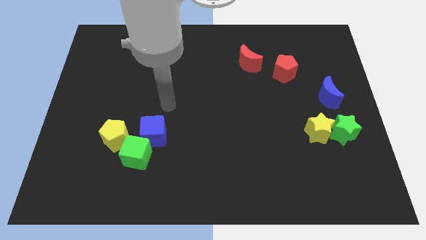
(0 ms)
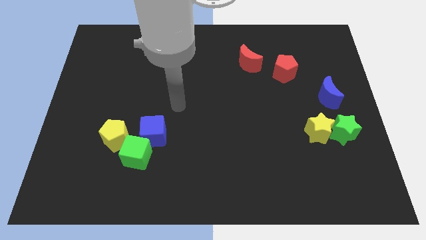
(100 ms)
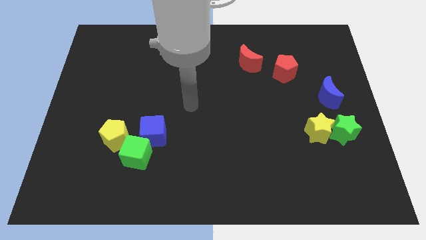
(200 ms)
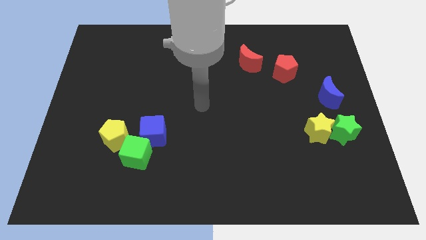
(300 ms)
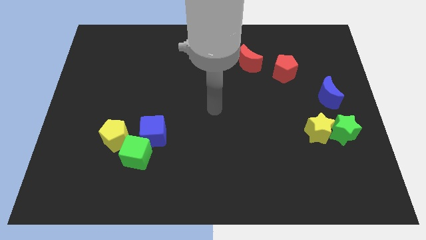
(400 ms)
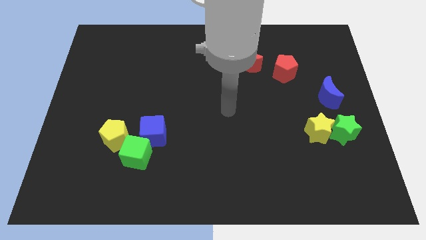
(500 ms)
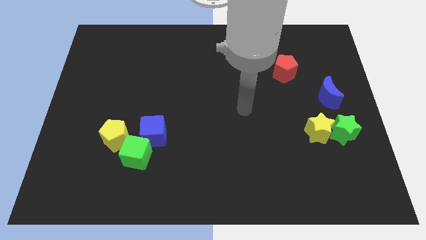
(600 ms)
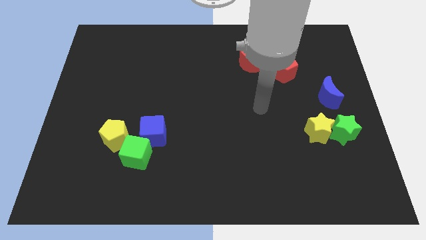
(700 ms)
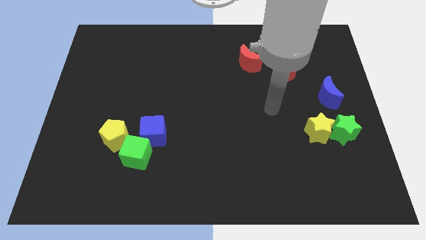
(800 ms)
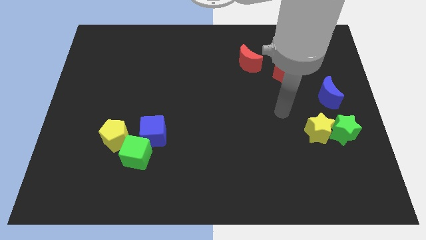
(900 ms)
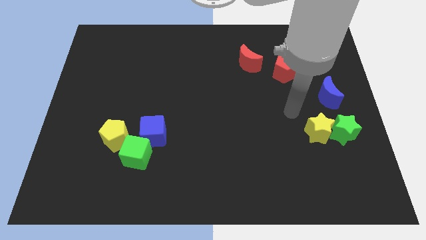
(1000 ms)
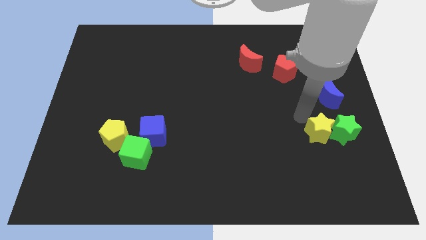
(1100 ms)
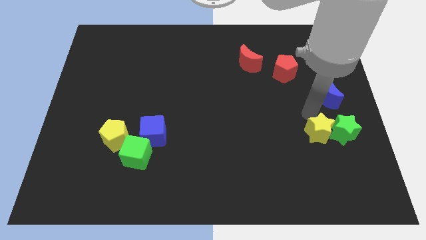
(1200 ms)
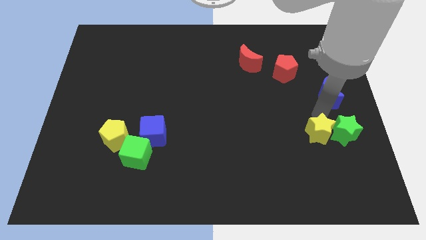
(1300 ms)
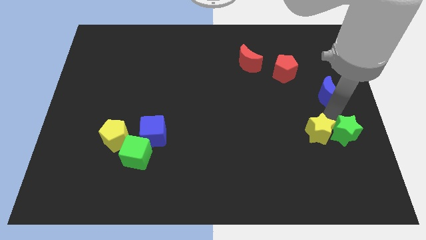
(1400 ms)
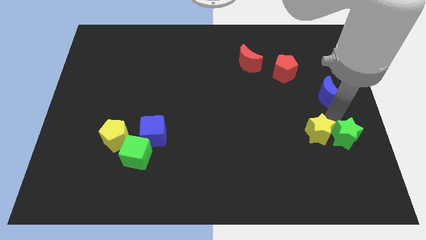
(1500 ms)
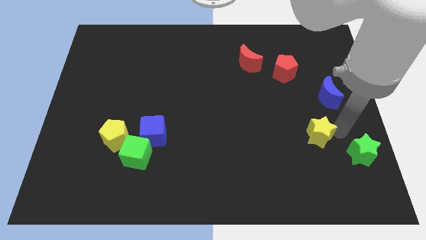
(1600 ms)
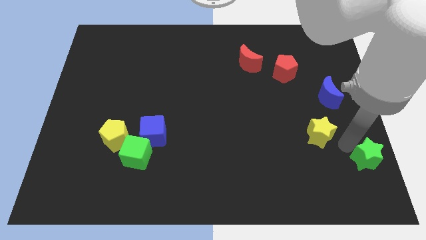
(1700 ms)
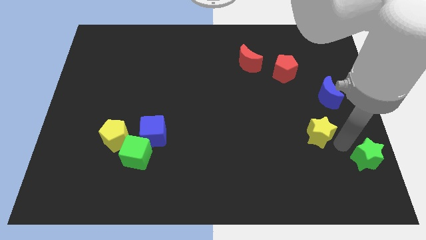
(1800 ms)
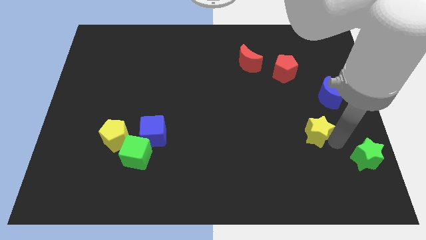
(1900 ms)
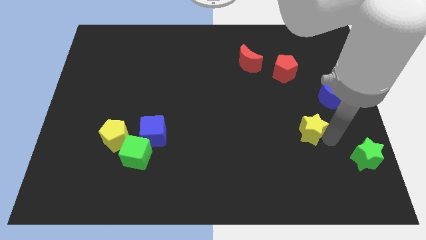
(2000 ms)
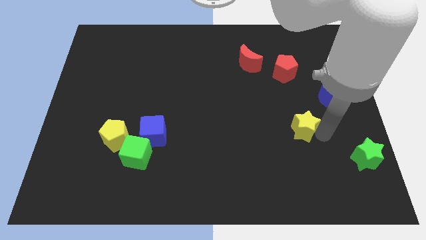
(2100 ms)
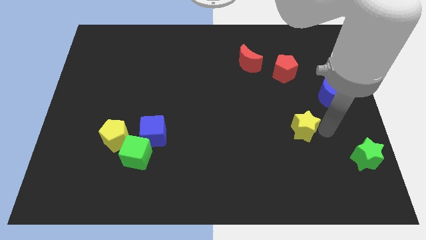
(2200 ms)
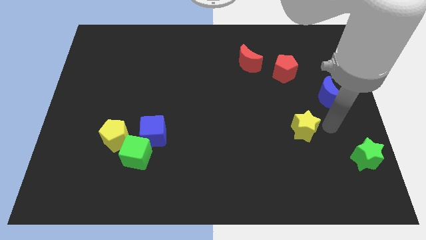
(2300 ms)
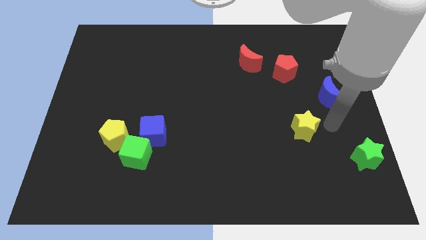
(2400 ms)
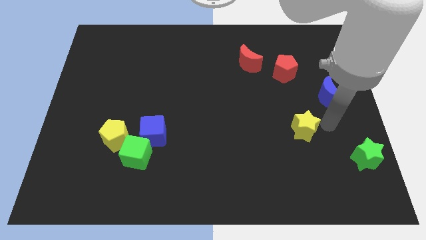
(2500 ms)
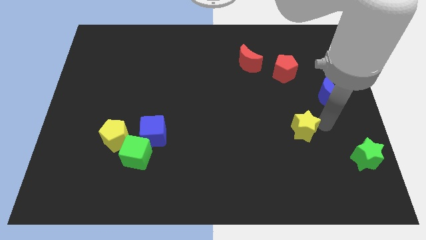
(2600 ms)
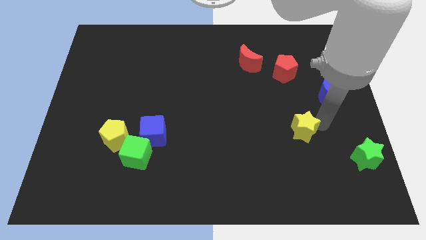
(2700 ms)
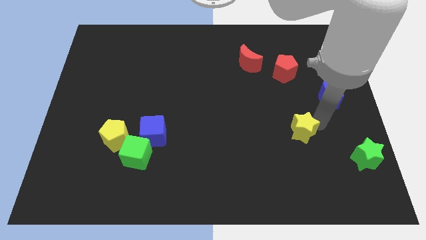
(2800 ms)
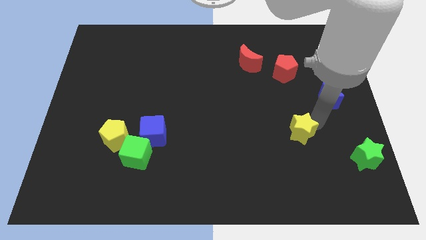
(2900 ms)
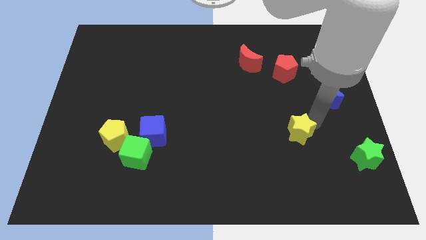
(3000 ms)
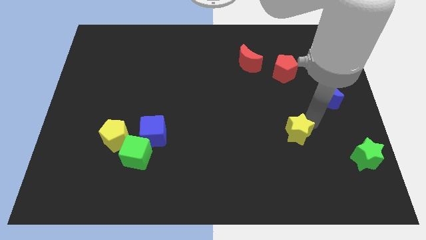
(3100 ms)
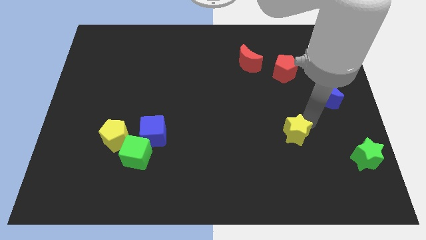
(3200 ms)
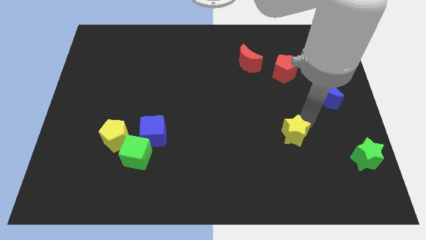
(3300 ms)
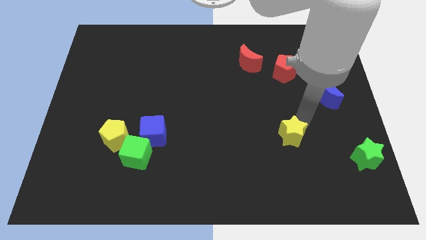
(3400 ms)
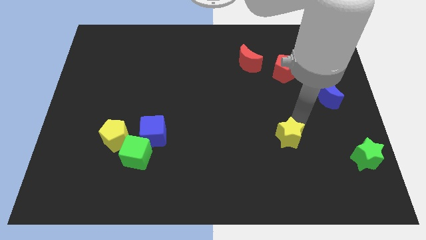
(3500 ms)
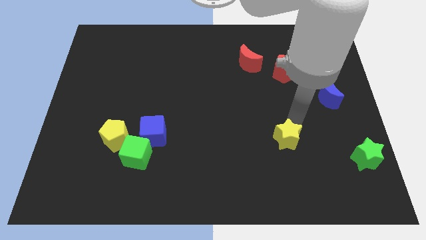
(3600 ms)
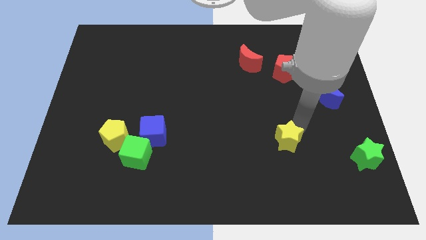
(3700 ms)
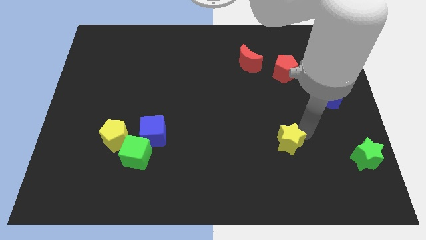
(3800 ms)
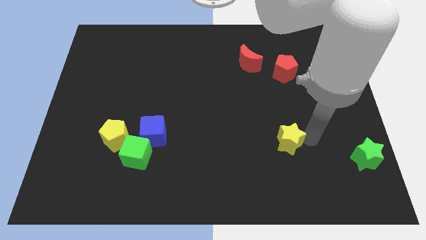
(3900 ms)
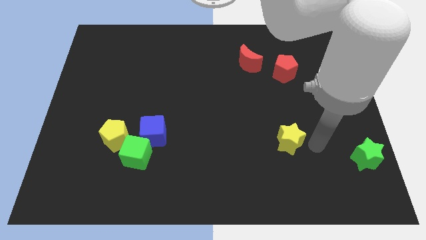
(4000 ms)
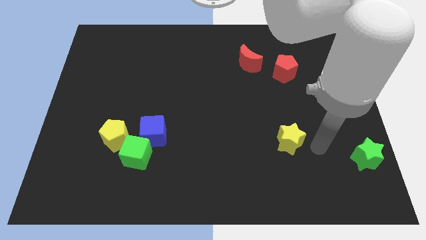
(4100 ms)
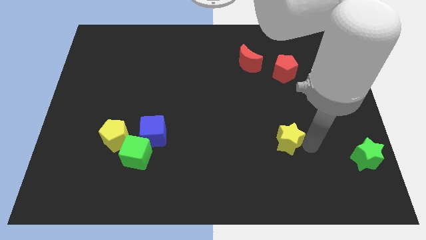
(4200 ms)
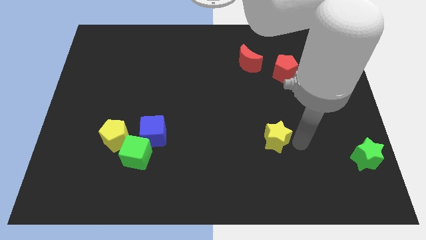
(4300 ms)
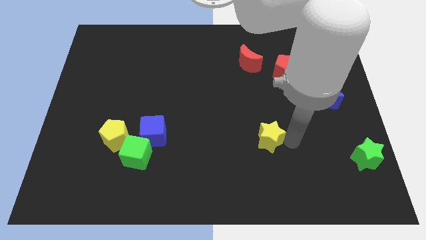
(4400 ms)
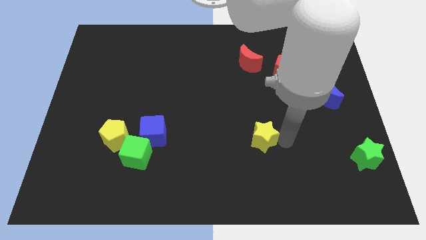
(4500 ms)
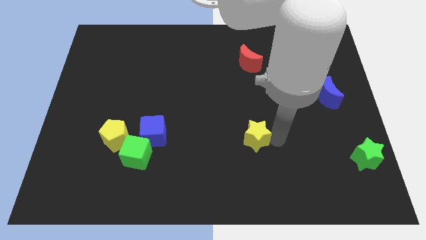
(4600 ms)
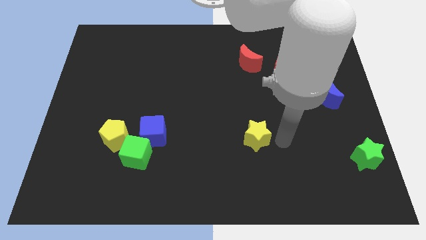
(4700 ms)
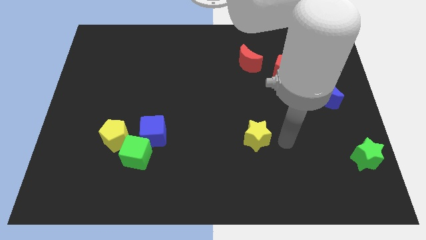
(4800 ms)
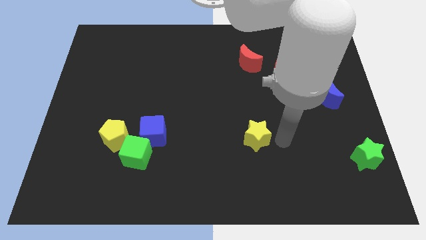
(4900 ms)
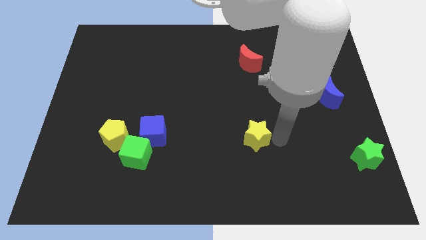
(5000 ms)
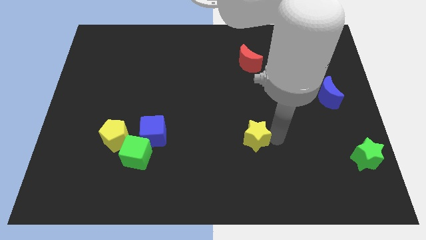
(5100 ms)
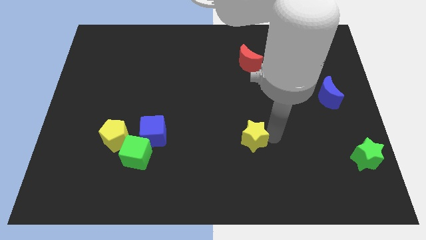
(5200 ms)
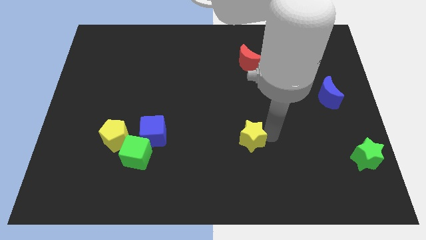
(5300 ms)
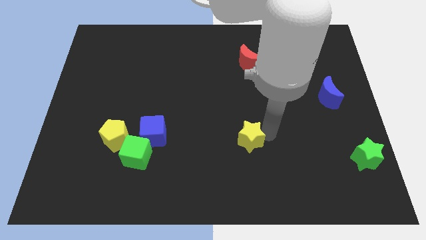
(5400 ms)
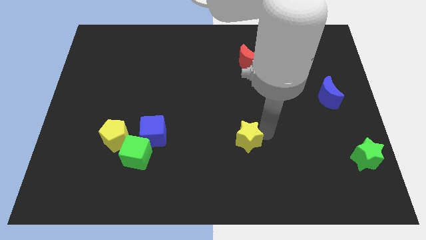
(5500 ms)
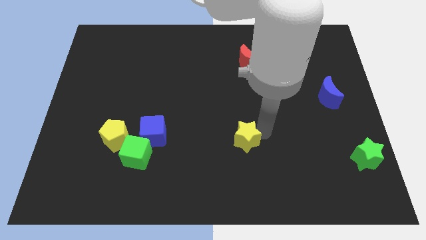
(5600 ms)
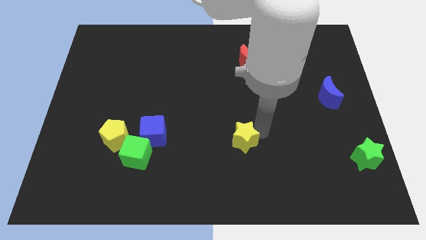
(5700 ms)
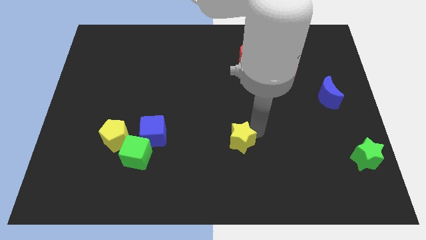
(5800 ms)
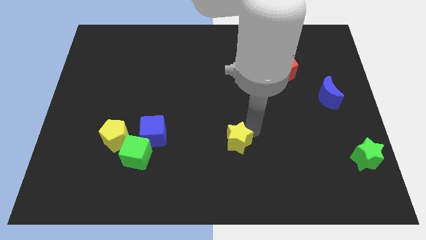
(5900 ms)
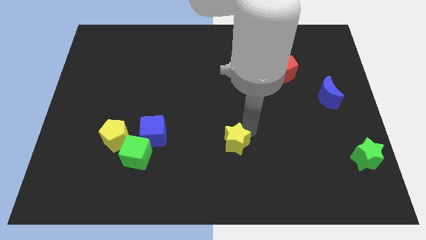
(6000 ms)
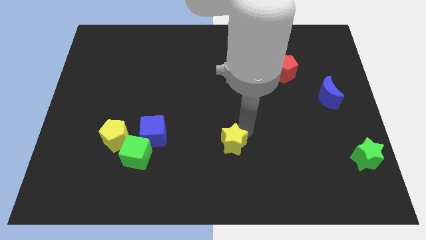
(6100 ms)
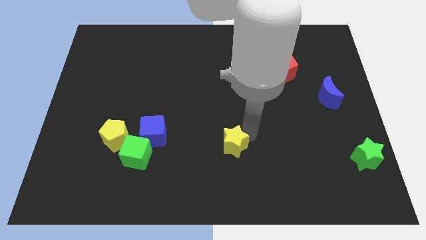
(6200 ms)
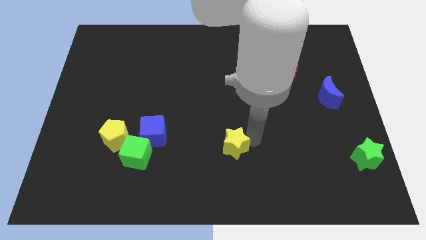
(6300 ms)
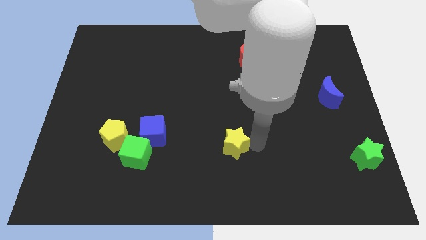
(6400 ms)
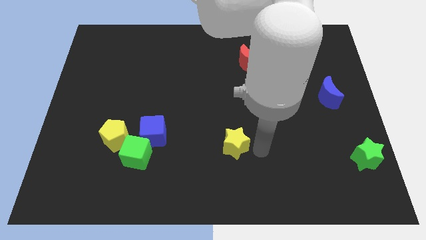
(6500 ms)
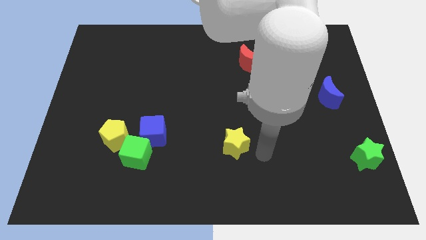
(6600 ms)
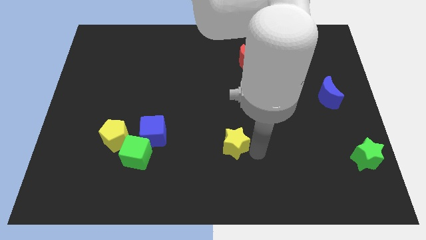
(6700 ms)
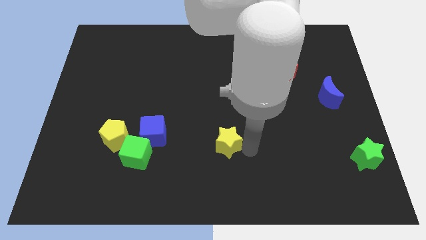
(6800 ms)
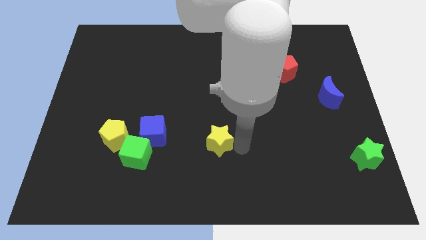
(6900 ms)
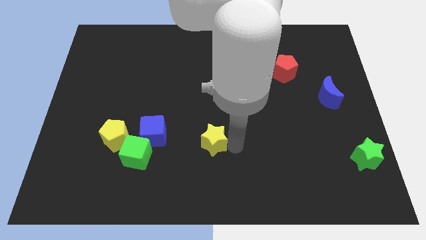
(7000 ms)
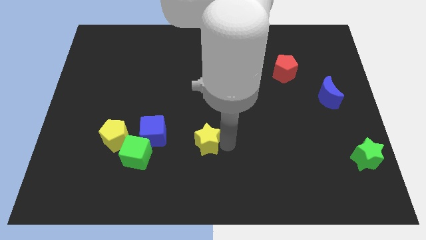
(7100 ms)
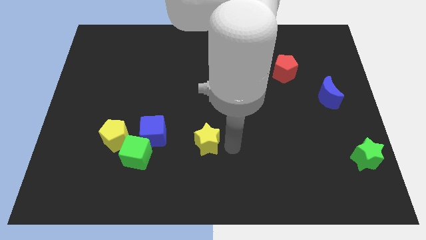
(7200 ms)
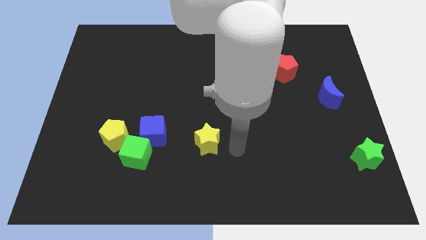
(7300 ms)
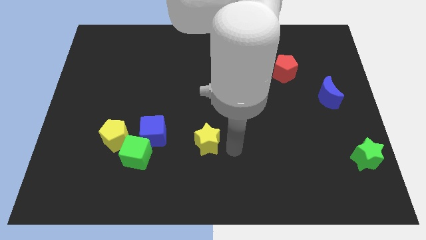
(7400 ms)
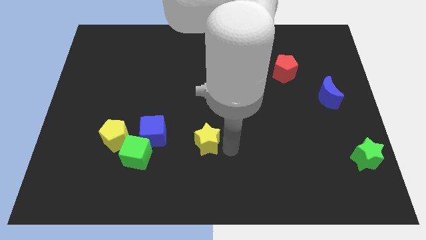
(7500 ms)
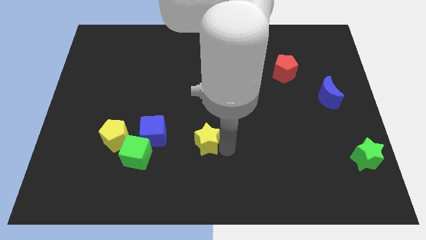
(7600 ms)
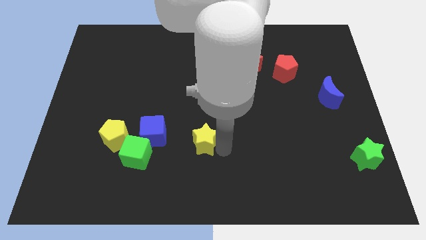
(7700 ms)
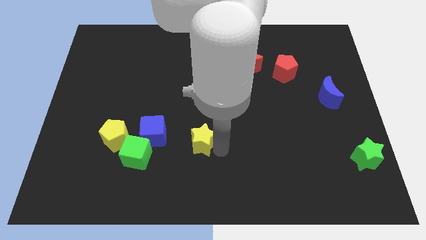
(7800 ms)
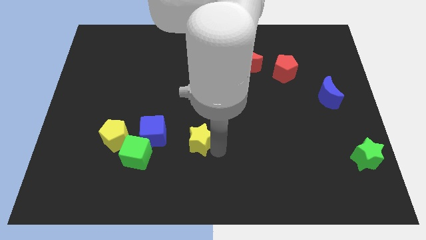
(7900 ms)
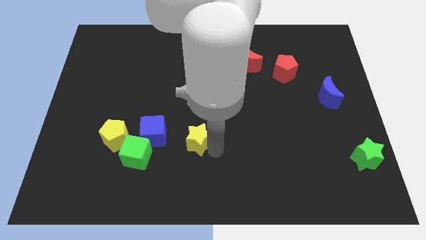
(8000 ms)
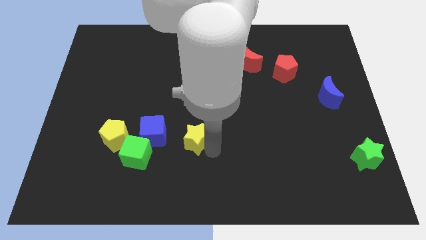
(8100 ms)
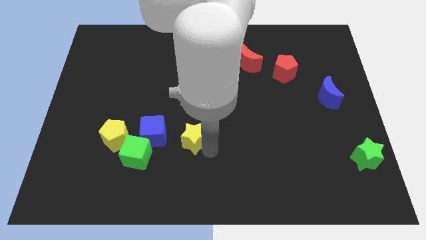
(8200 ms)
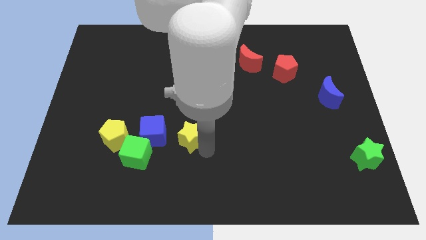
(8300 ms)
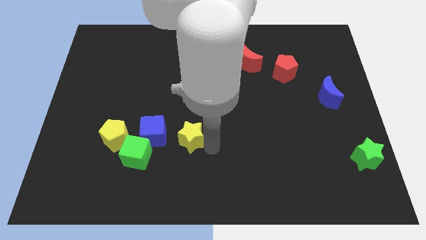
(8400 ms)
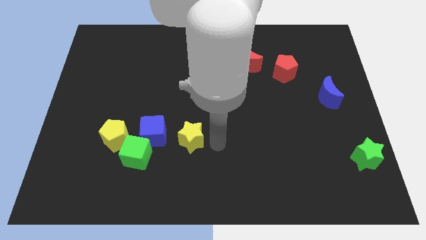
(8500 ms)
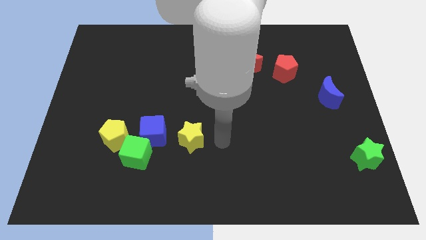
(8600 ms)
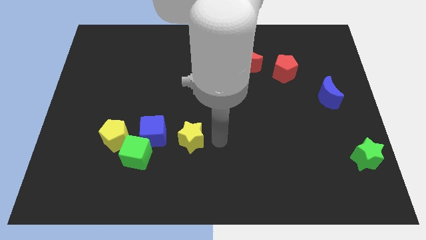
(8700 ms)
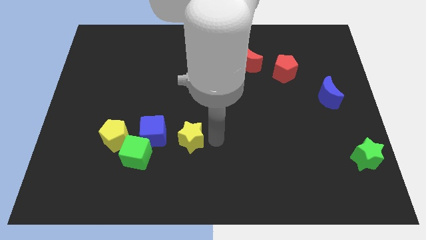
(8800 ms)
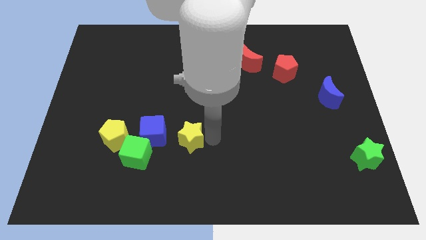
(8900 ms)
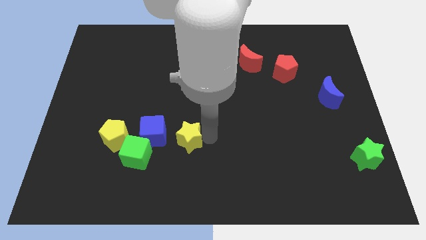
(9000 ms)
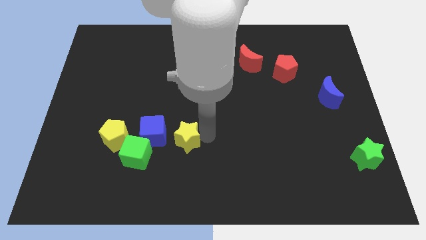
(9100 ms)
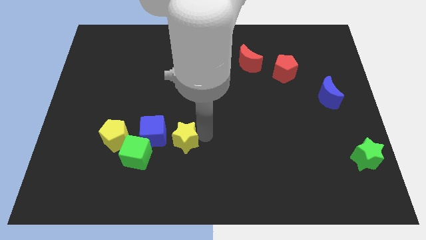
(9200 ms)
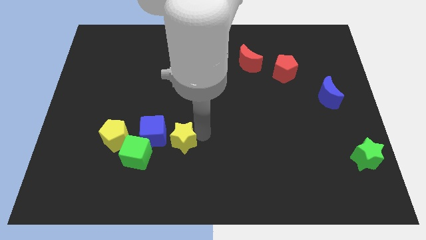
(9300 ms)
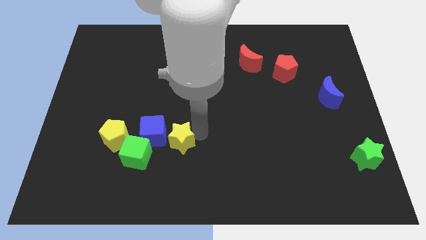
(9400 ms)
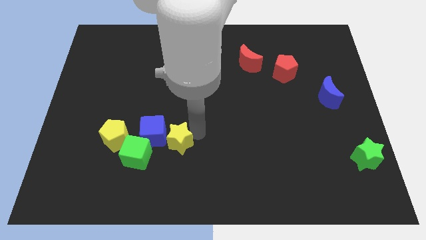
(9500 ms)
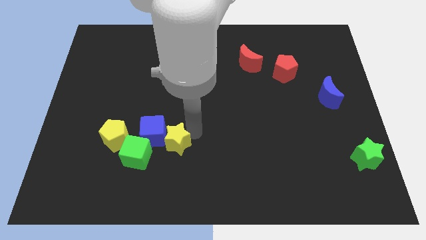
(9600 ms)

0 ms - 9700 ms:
put the yellow star to the blue cube
